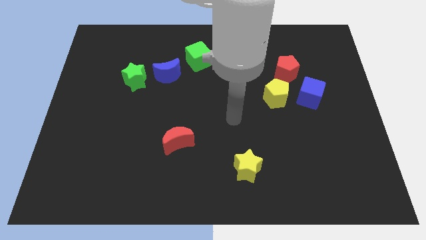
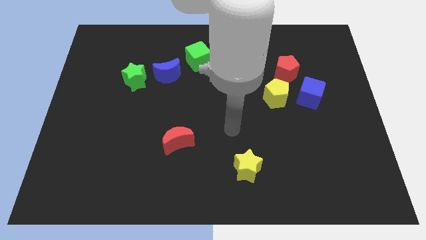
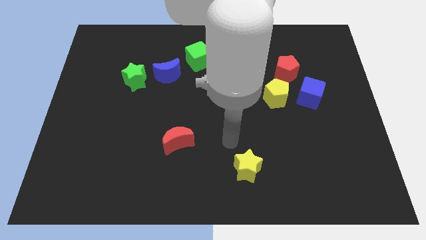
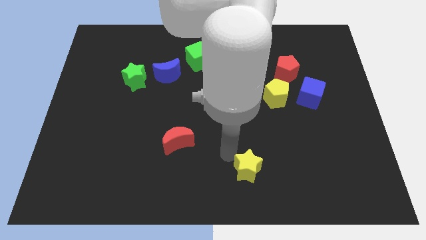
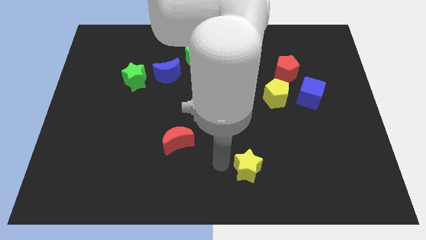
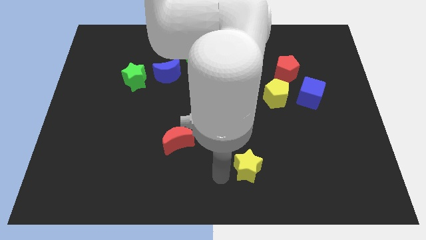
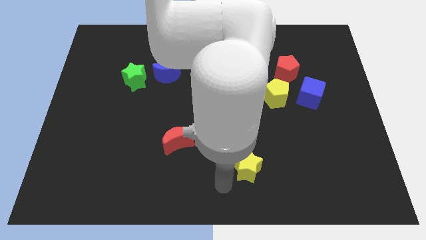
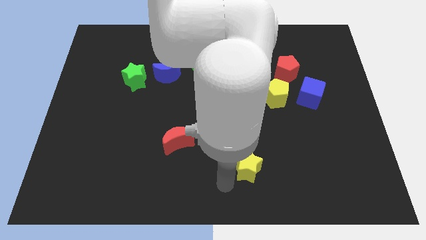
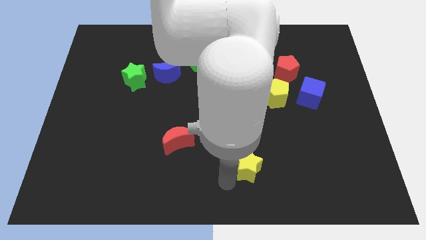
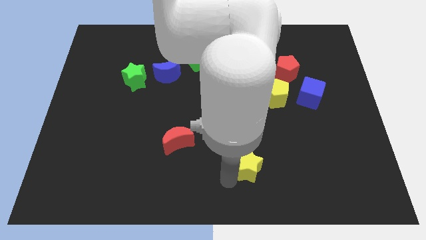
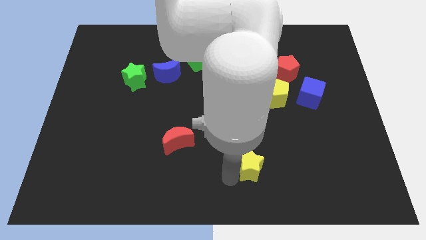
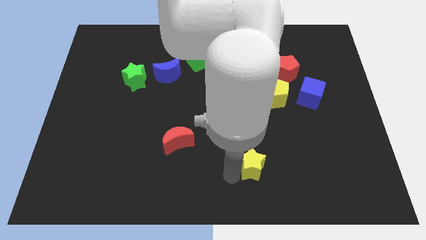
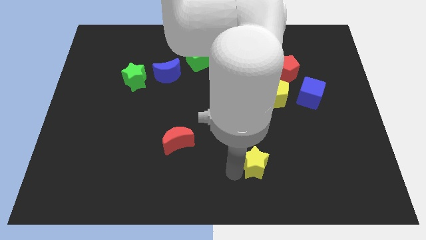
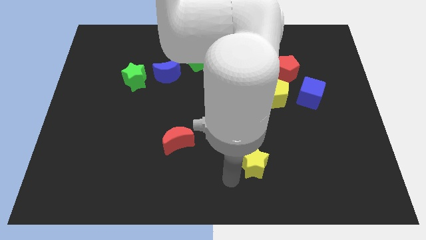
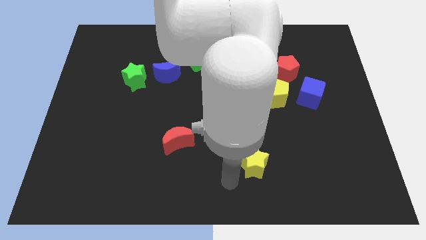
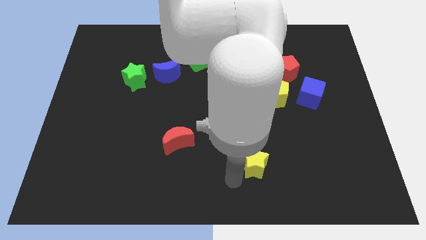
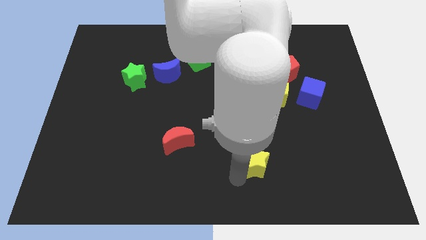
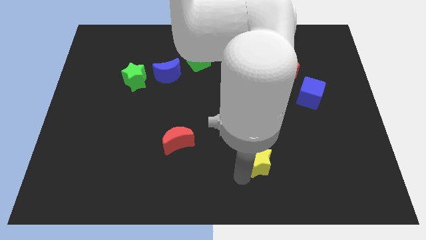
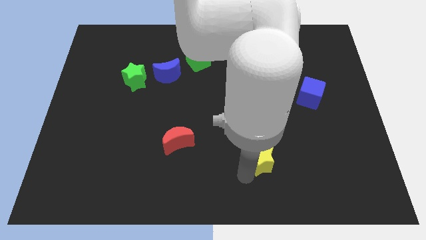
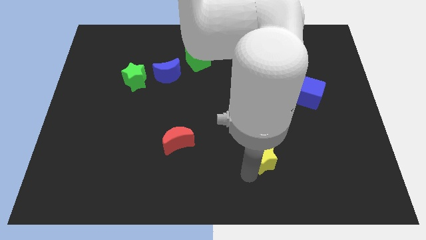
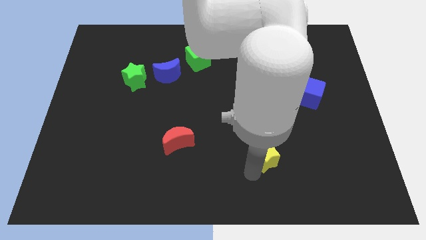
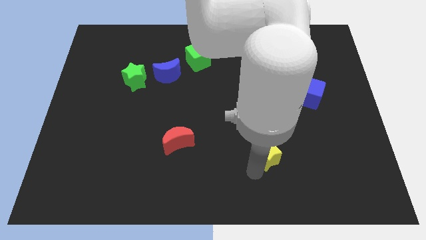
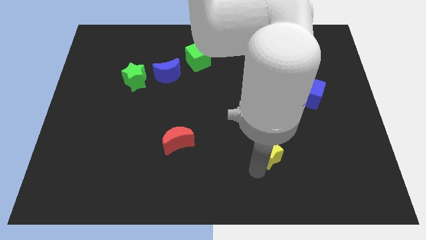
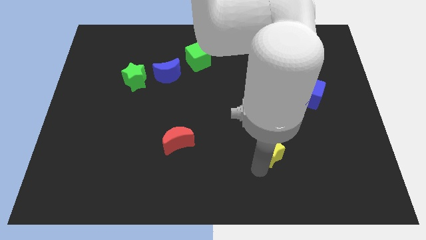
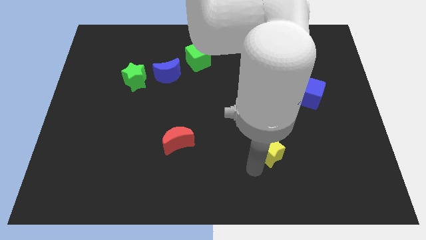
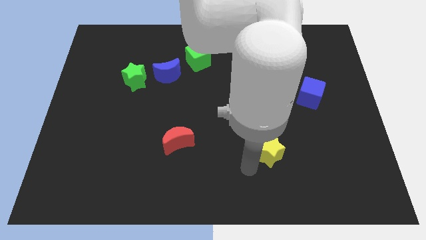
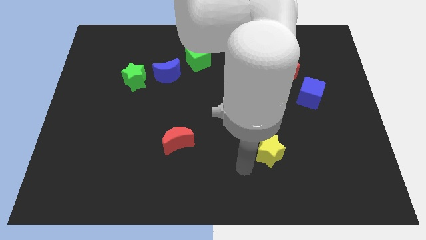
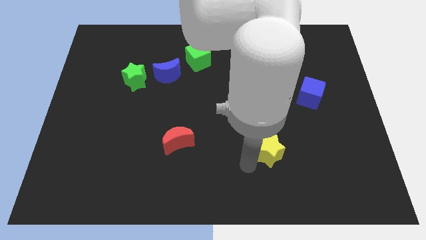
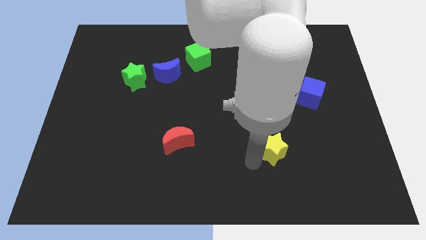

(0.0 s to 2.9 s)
slightly slide the yellow star upwards and then to the right

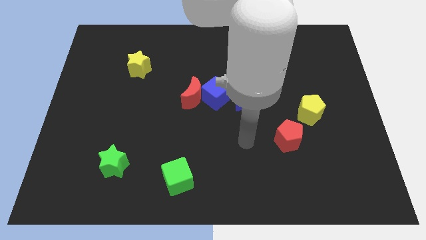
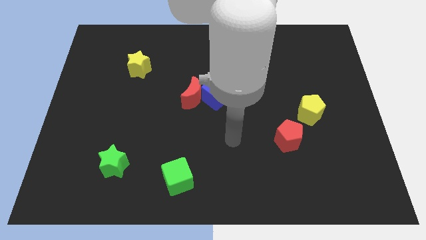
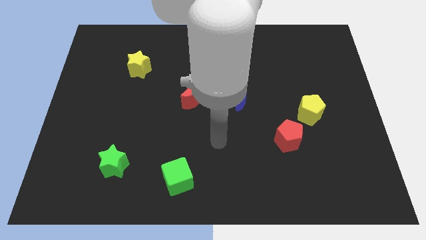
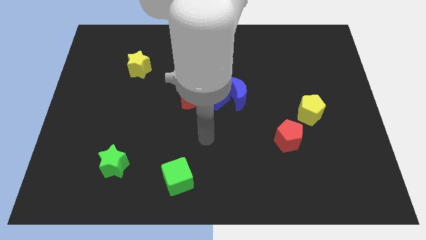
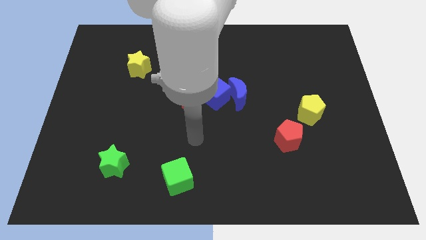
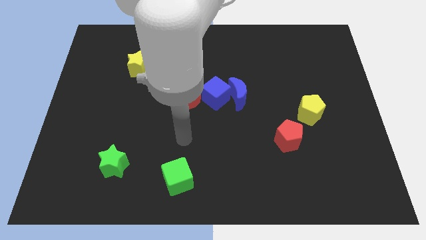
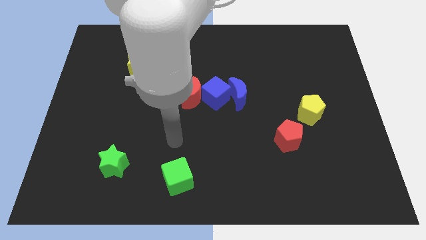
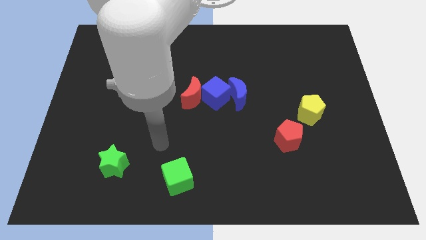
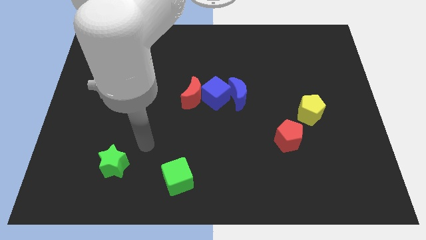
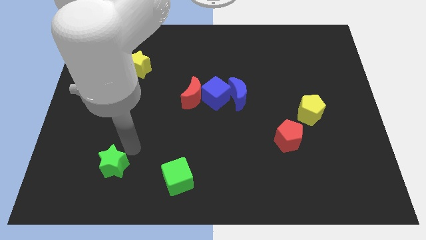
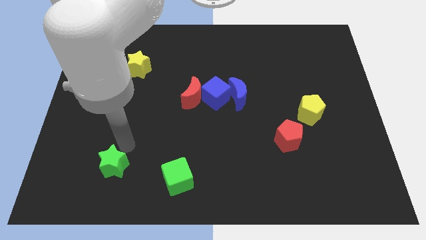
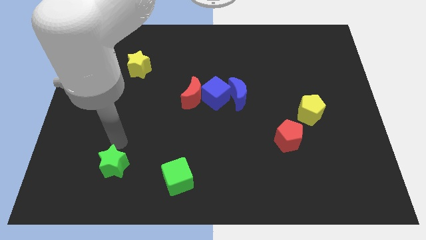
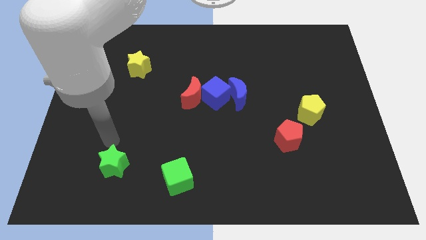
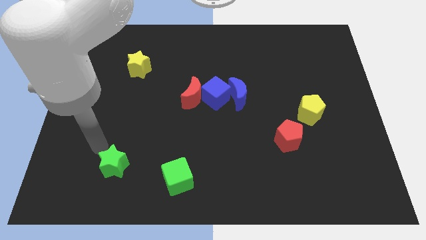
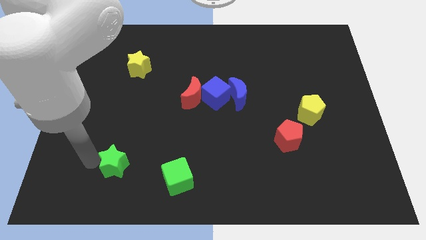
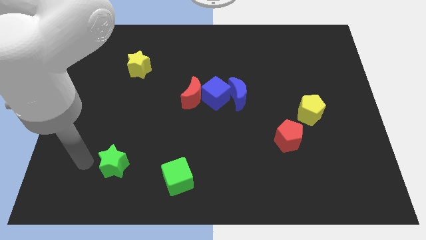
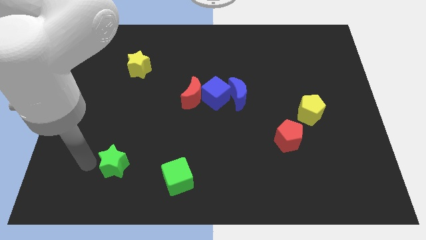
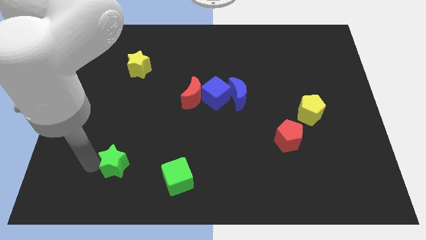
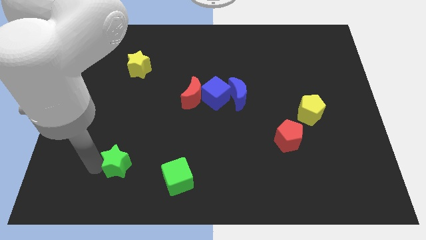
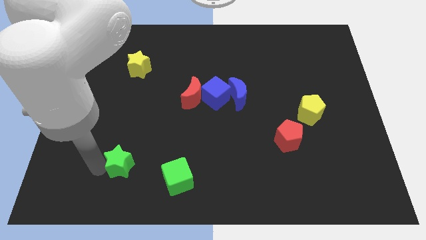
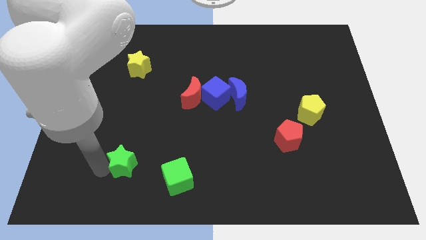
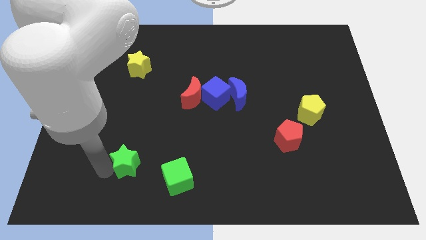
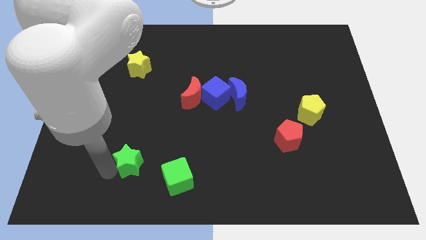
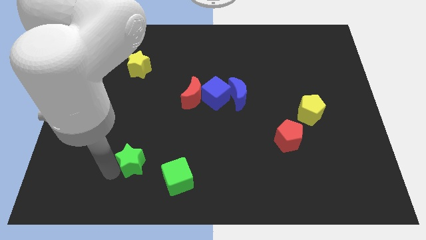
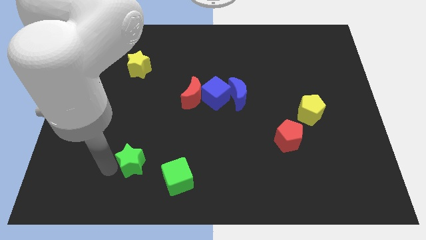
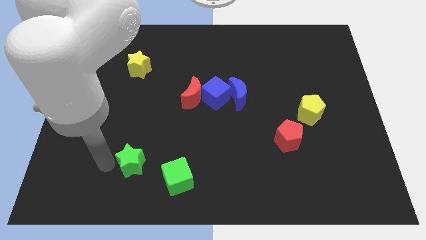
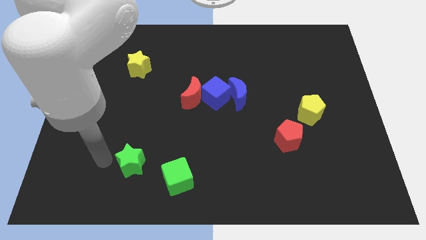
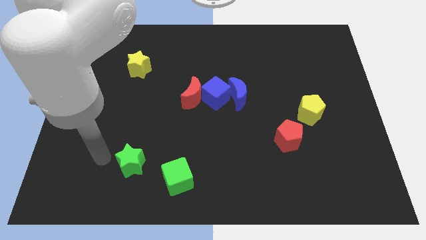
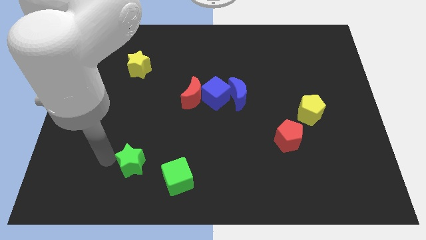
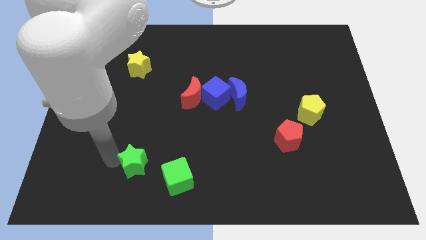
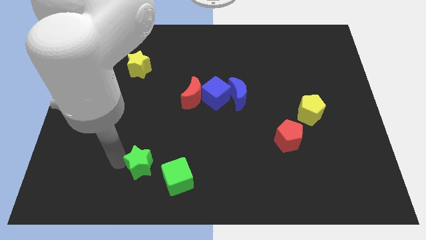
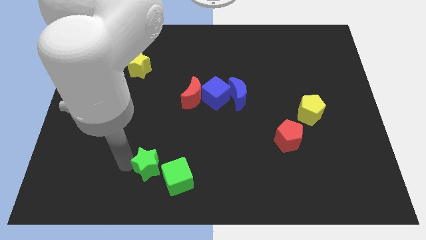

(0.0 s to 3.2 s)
slide the green star to the right a little bit

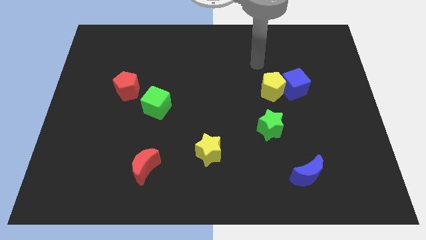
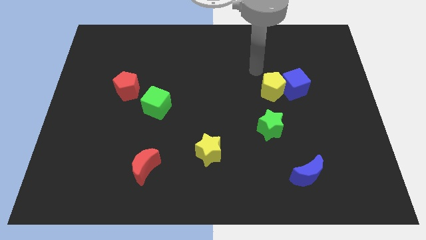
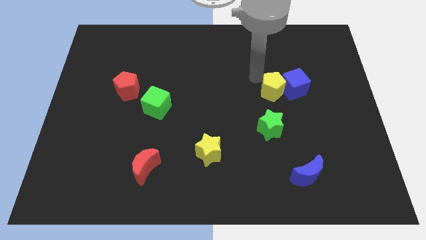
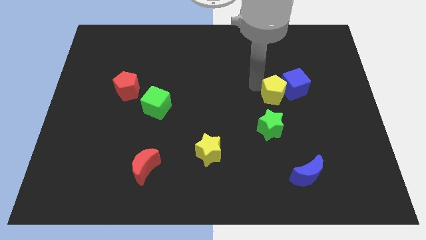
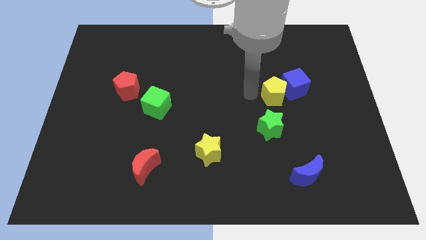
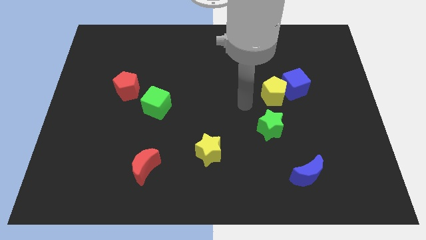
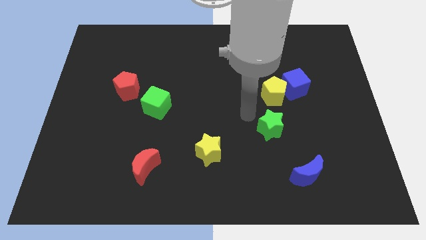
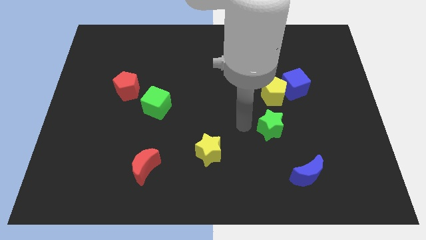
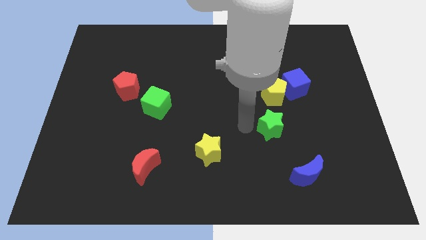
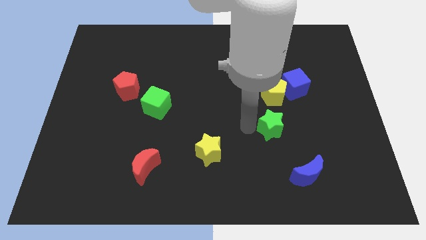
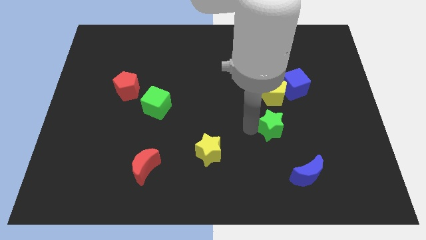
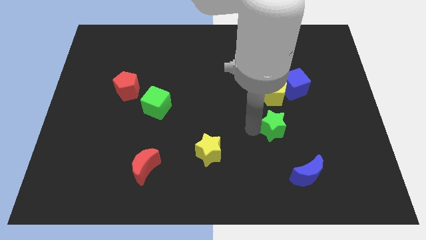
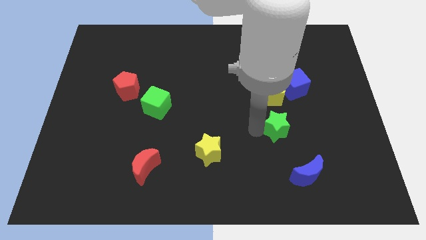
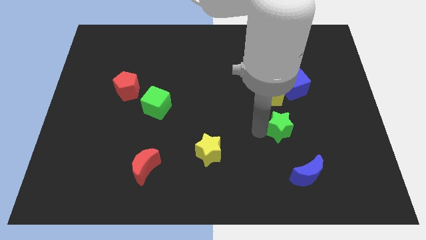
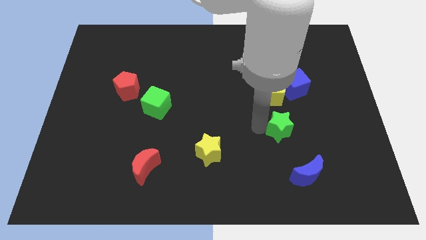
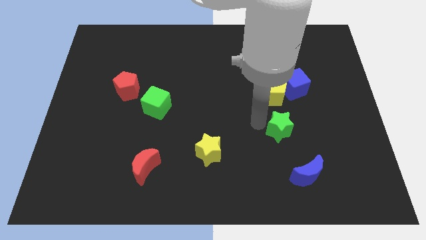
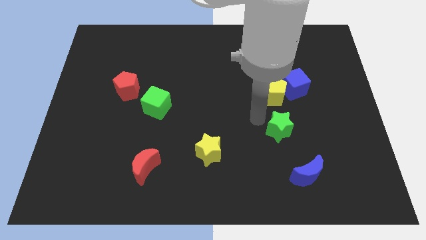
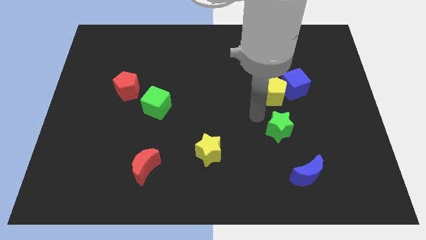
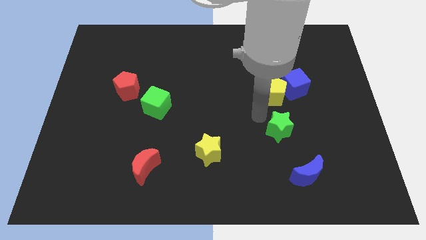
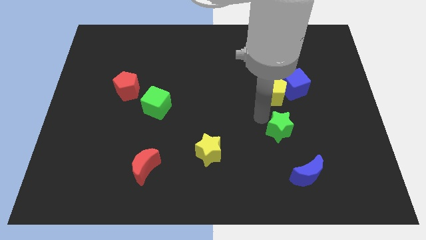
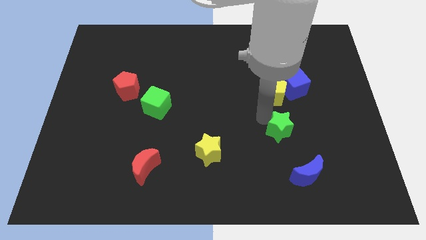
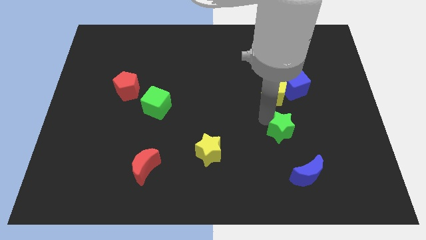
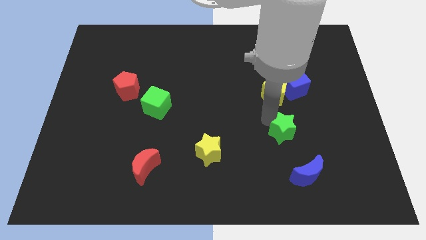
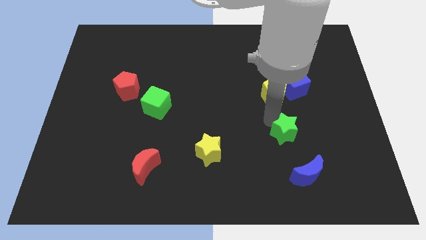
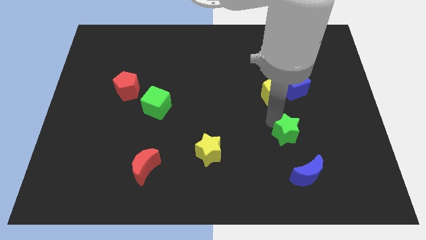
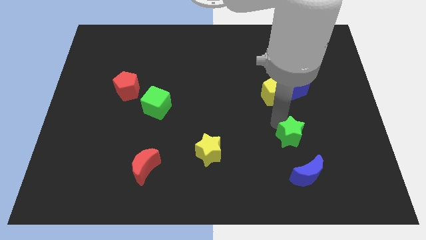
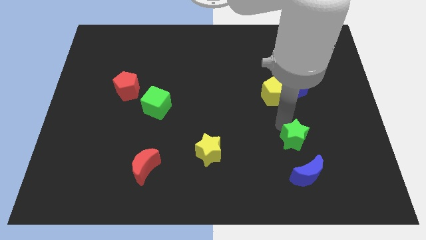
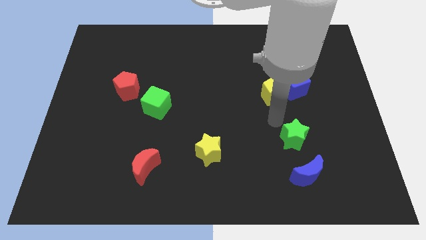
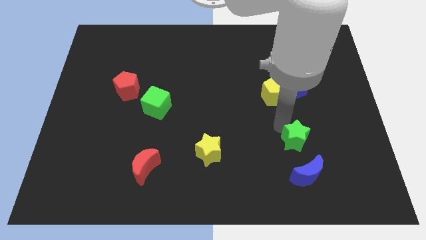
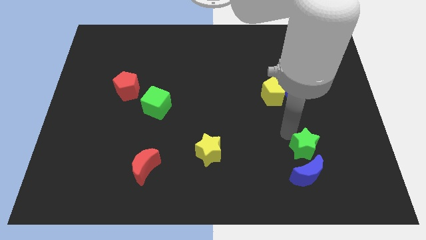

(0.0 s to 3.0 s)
slightly move the green star downwards and to the right diagonally
